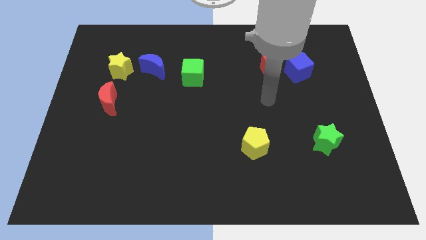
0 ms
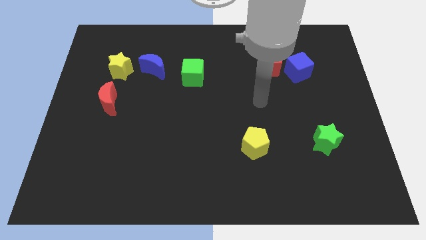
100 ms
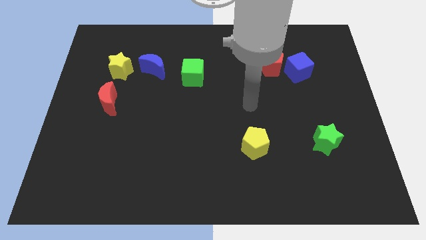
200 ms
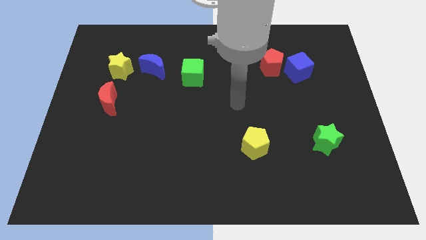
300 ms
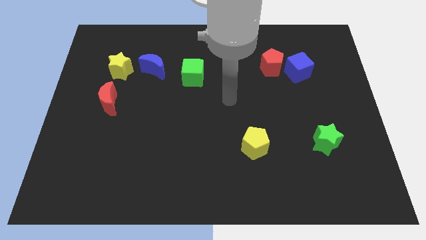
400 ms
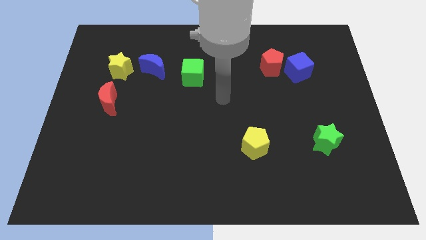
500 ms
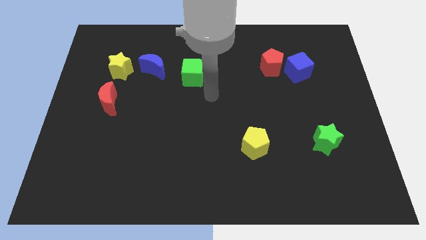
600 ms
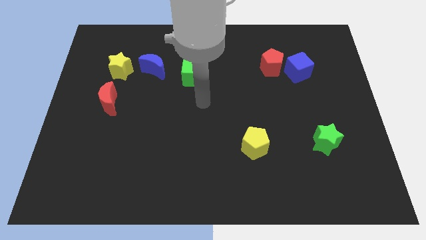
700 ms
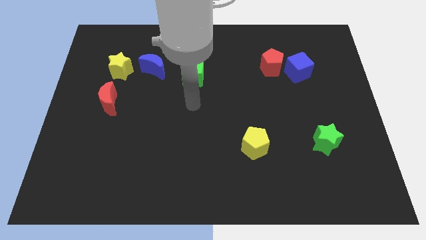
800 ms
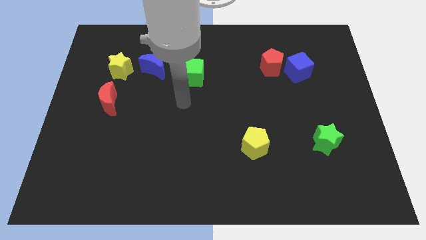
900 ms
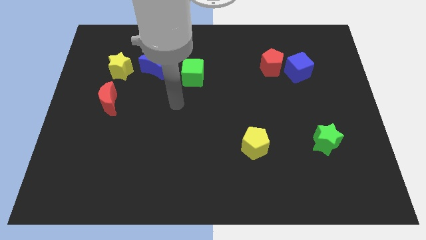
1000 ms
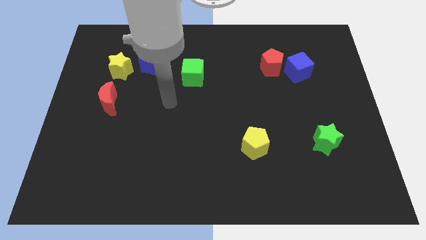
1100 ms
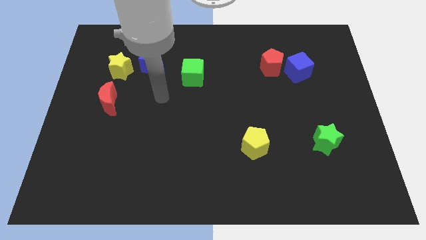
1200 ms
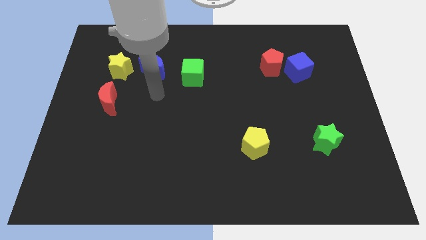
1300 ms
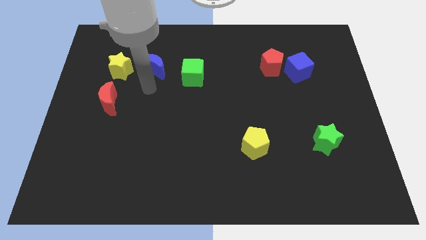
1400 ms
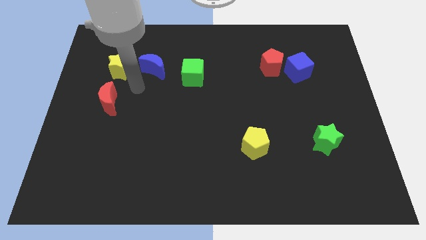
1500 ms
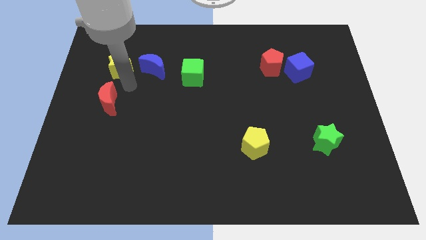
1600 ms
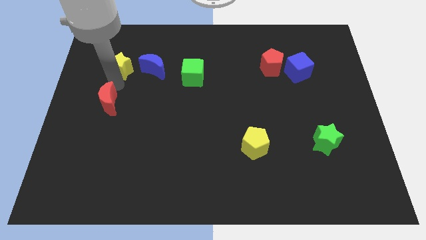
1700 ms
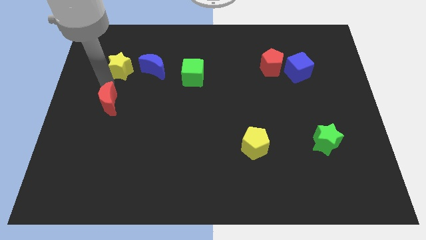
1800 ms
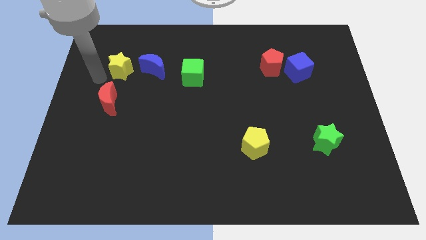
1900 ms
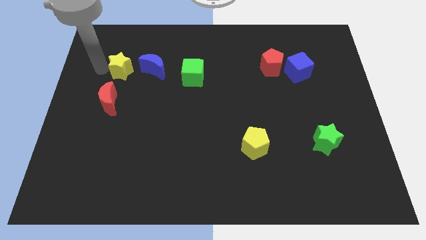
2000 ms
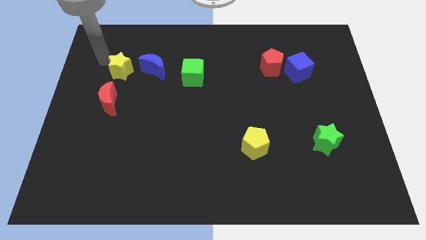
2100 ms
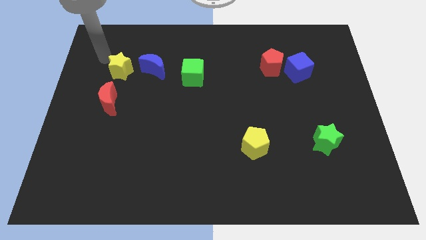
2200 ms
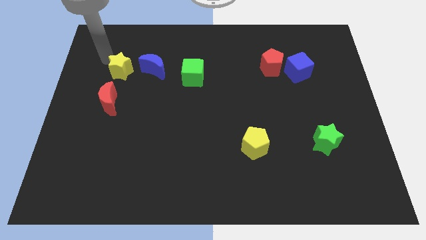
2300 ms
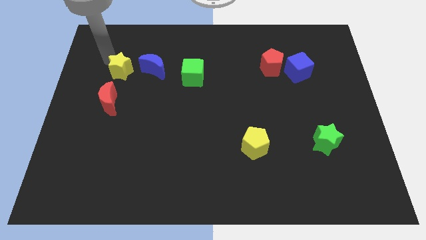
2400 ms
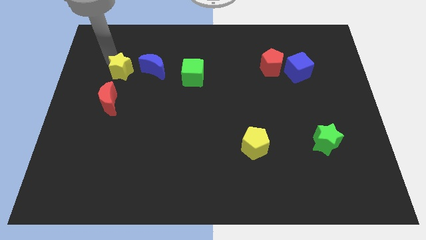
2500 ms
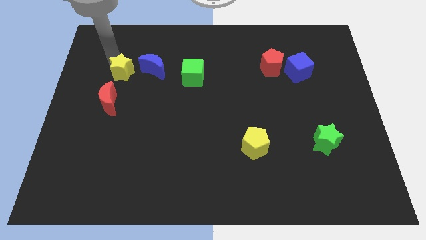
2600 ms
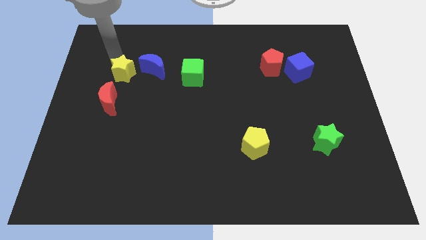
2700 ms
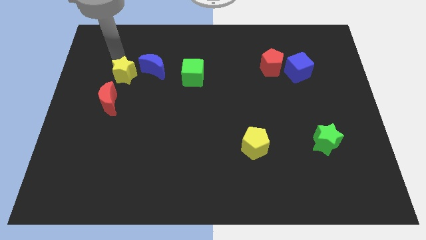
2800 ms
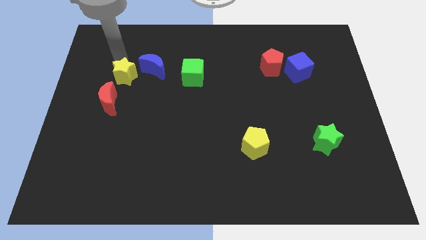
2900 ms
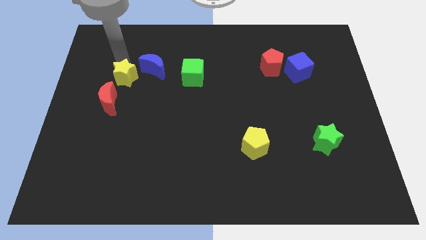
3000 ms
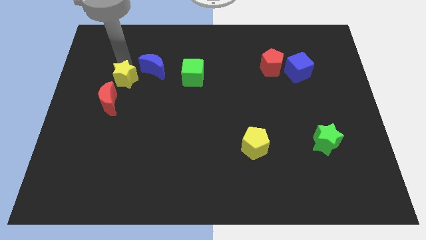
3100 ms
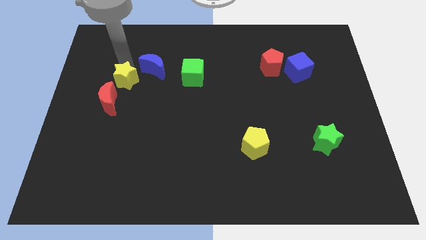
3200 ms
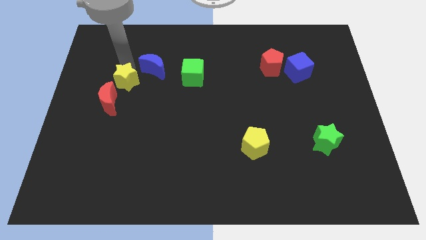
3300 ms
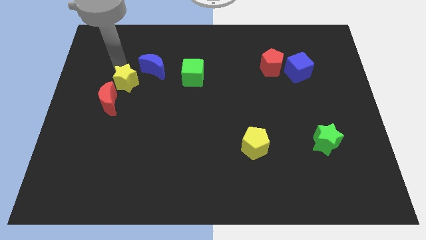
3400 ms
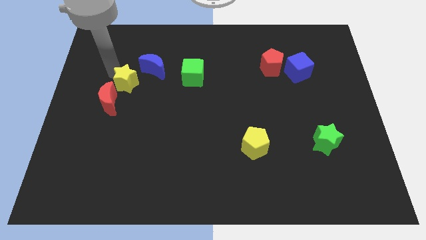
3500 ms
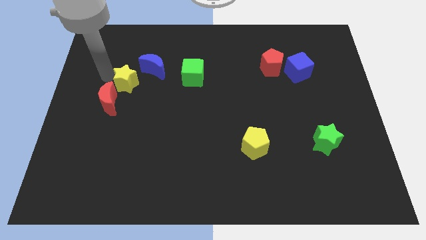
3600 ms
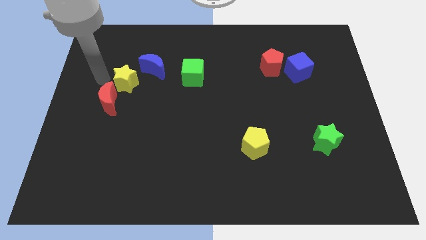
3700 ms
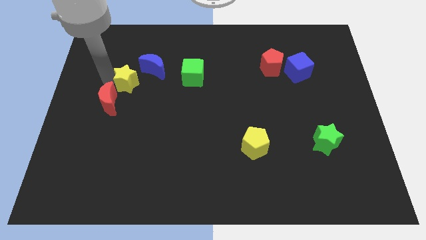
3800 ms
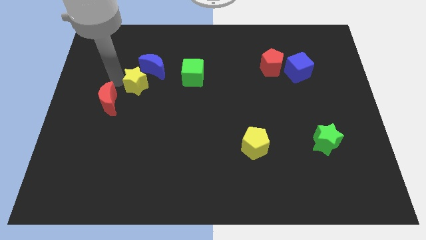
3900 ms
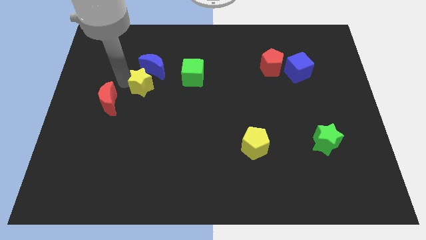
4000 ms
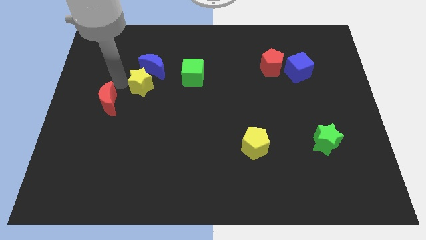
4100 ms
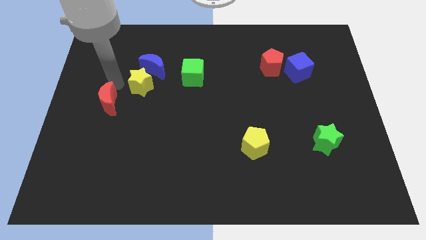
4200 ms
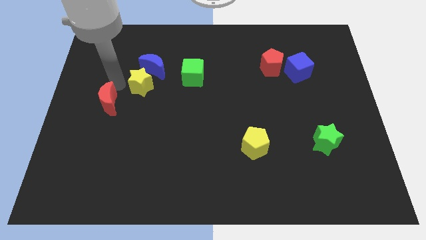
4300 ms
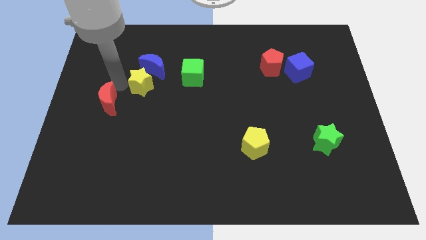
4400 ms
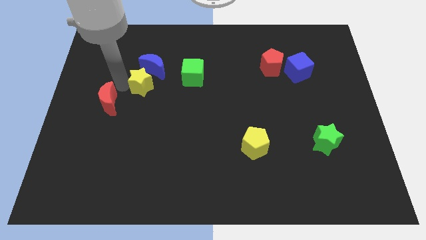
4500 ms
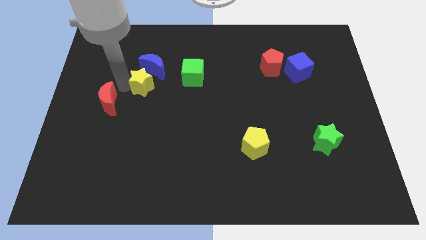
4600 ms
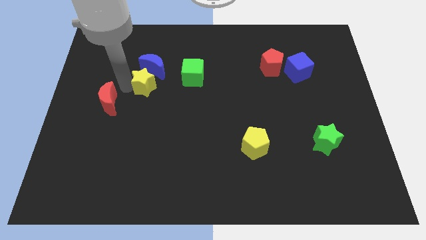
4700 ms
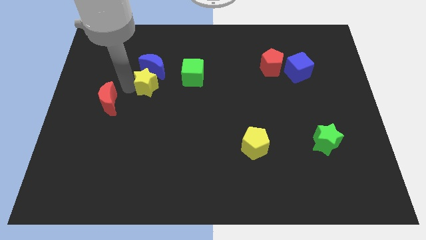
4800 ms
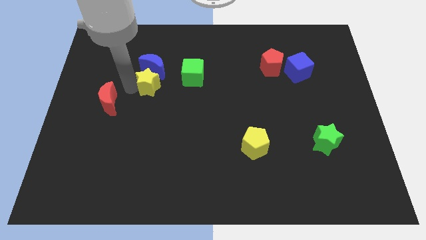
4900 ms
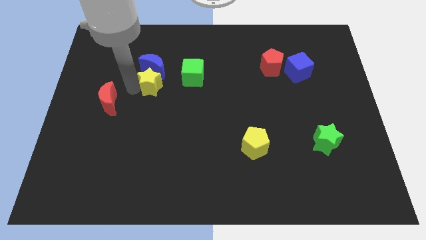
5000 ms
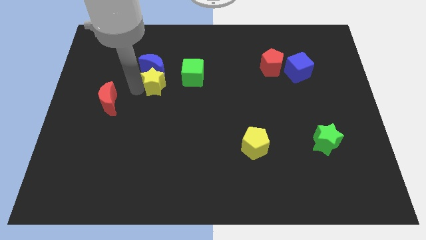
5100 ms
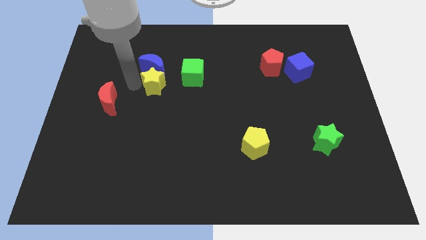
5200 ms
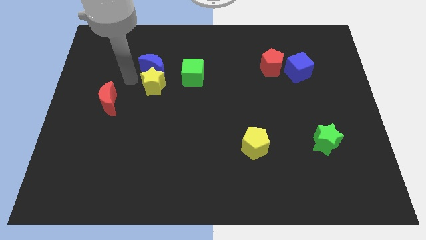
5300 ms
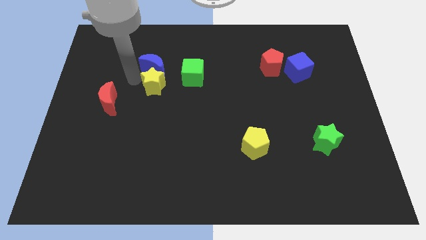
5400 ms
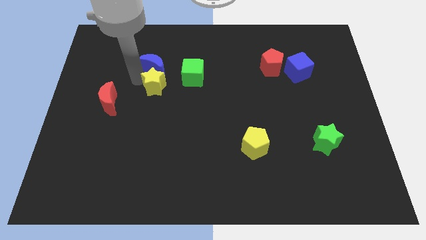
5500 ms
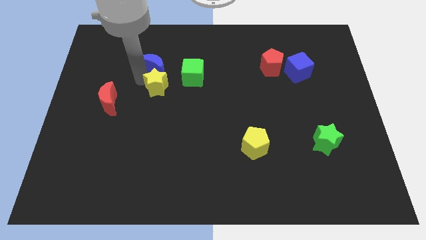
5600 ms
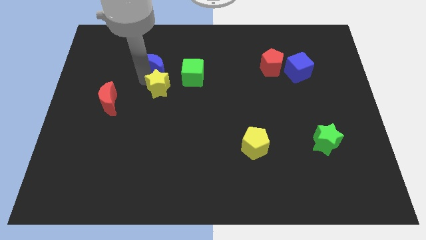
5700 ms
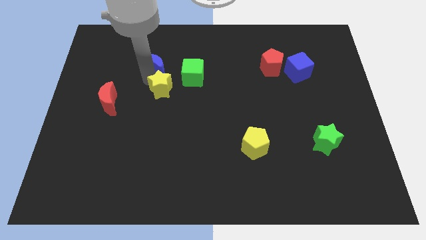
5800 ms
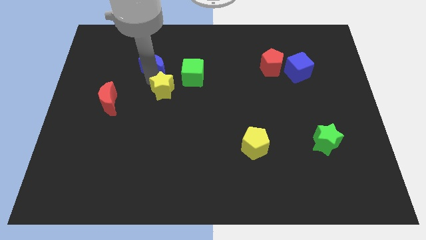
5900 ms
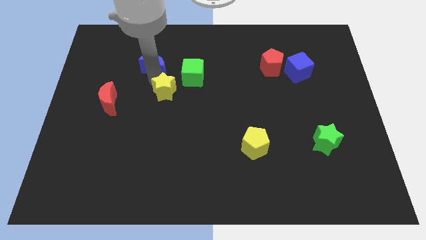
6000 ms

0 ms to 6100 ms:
push the yellow star to the middle of the board
